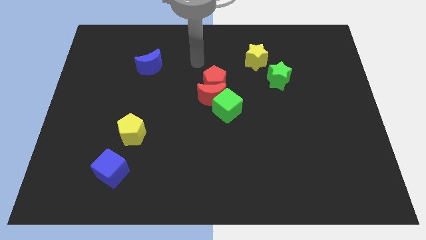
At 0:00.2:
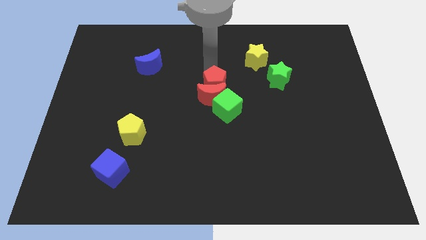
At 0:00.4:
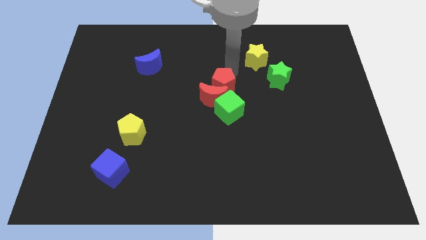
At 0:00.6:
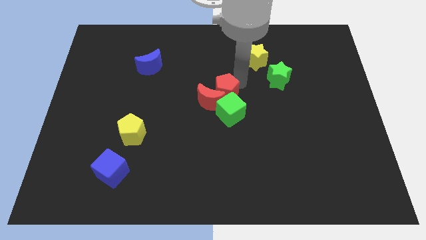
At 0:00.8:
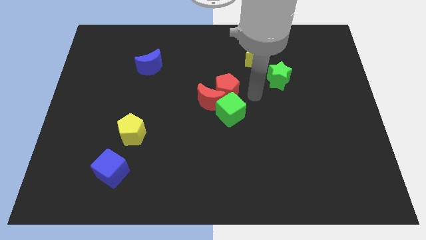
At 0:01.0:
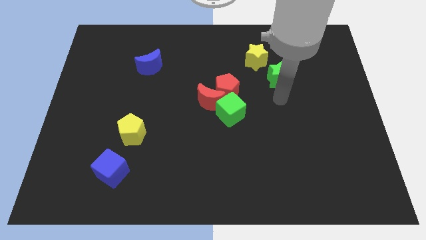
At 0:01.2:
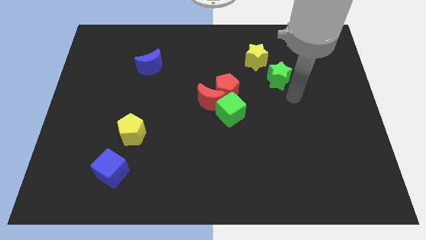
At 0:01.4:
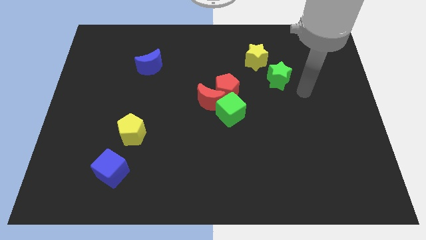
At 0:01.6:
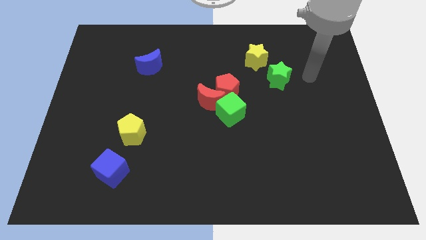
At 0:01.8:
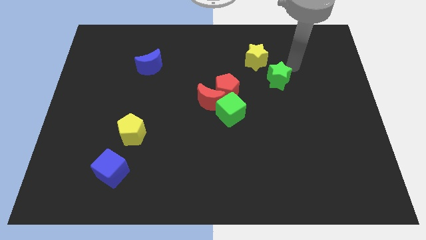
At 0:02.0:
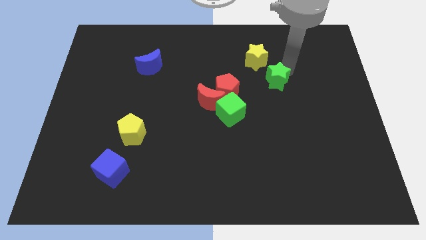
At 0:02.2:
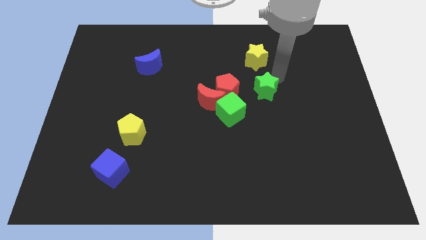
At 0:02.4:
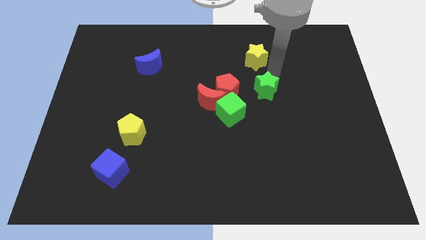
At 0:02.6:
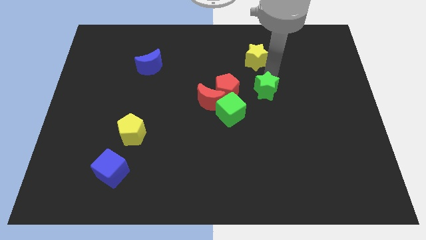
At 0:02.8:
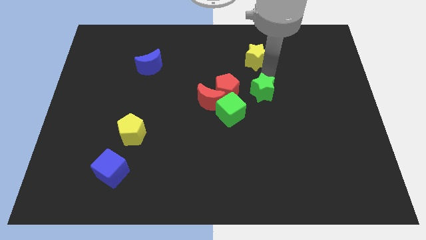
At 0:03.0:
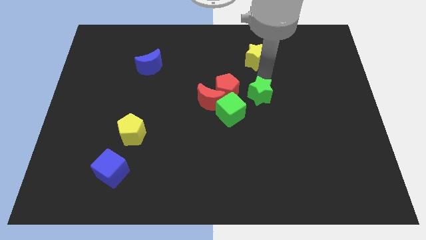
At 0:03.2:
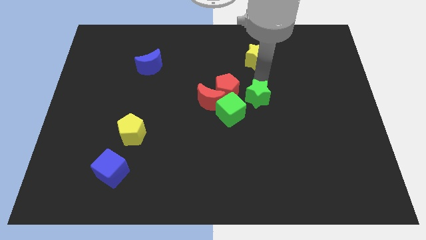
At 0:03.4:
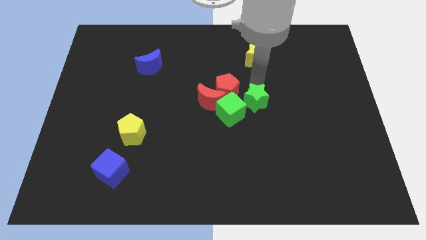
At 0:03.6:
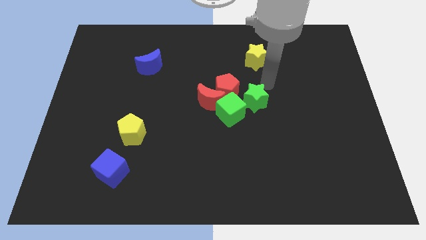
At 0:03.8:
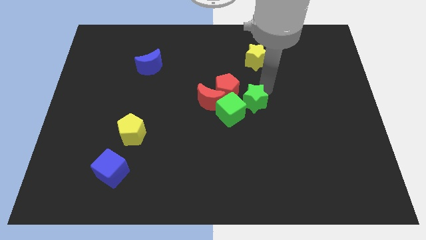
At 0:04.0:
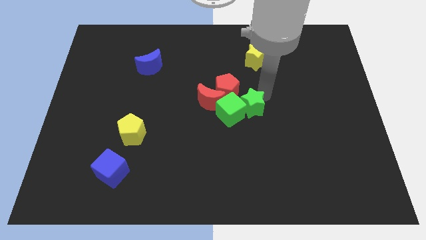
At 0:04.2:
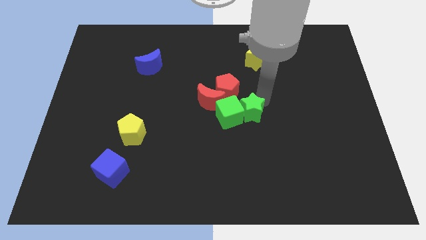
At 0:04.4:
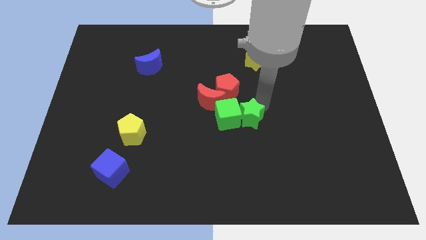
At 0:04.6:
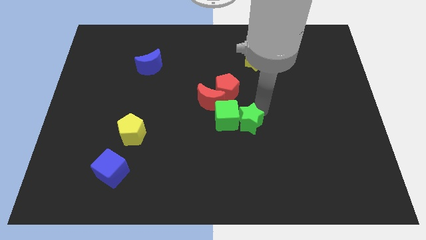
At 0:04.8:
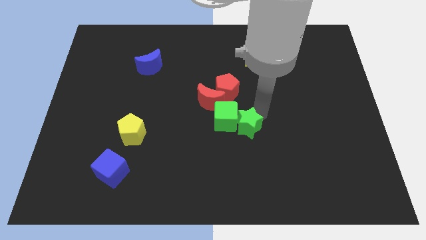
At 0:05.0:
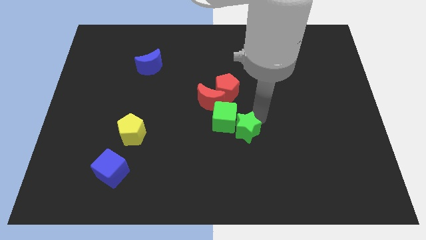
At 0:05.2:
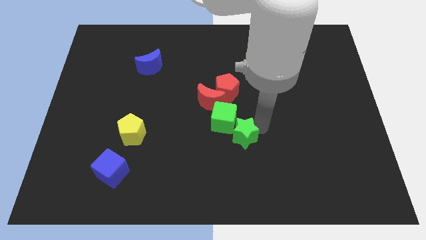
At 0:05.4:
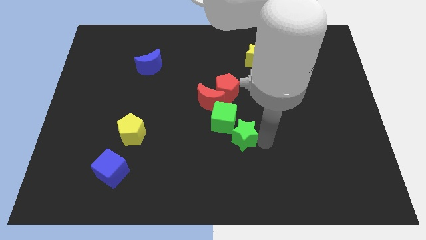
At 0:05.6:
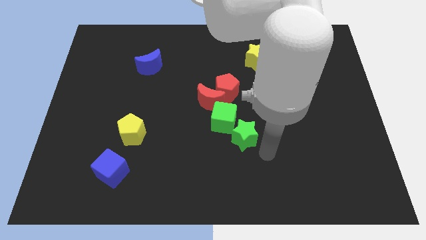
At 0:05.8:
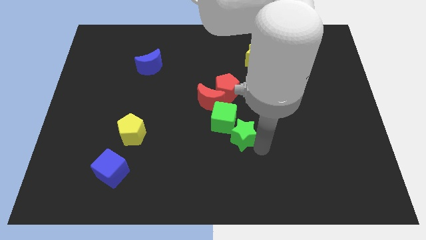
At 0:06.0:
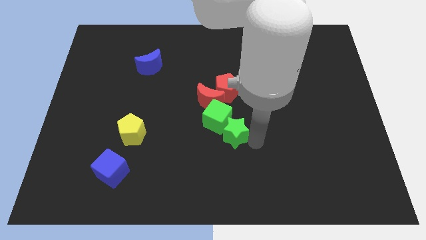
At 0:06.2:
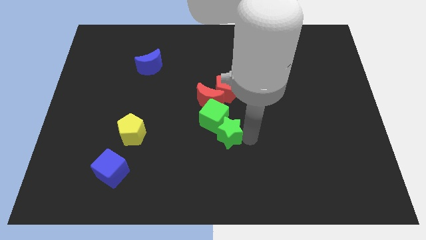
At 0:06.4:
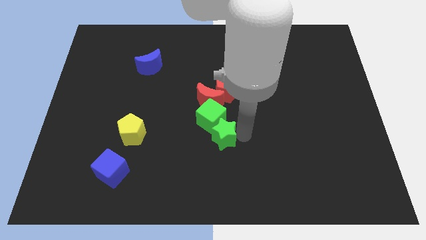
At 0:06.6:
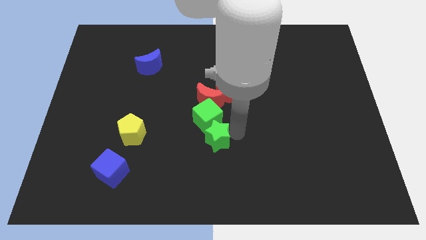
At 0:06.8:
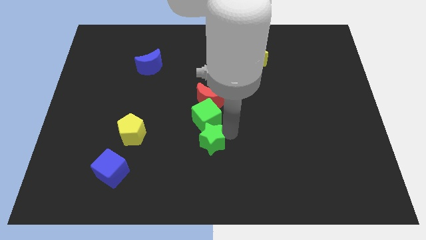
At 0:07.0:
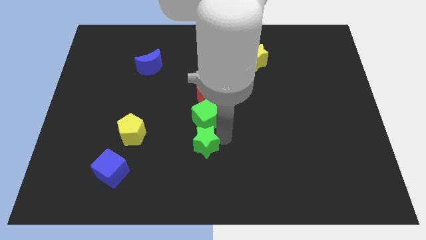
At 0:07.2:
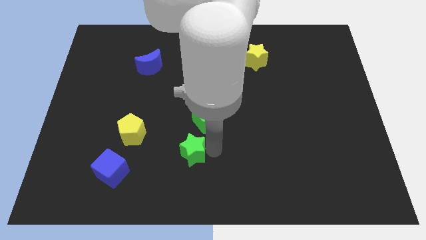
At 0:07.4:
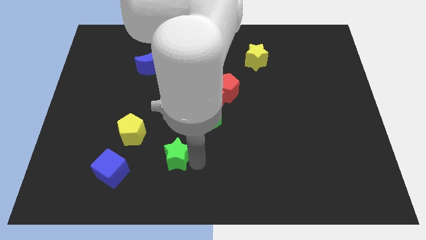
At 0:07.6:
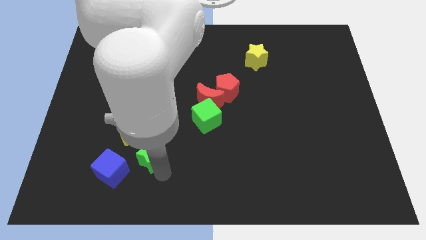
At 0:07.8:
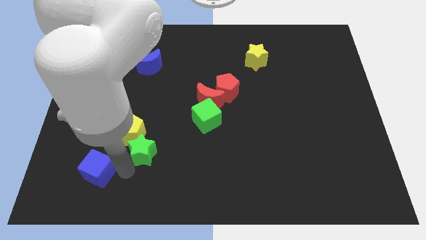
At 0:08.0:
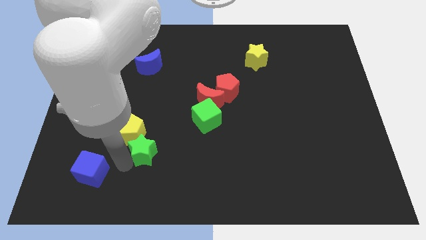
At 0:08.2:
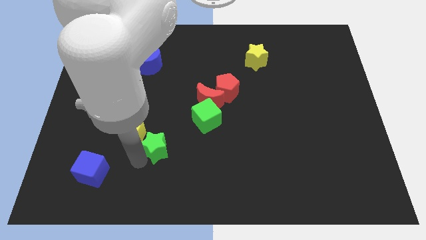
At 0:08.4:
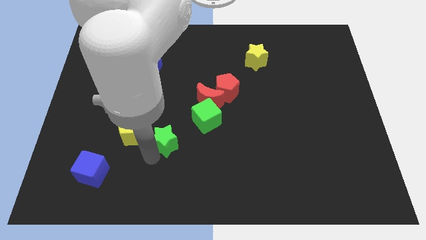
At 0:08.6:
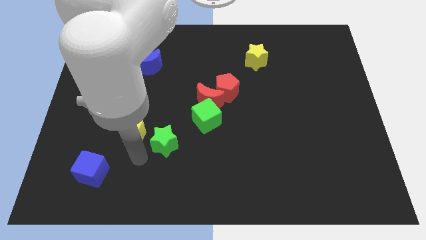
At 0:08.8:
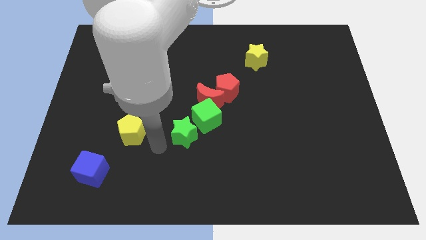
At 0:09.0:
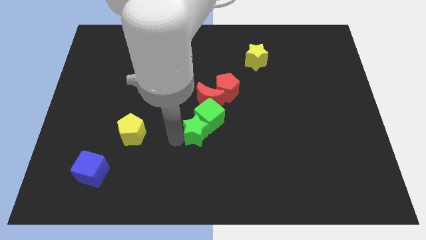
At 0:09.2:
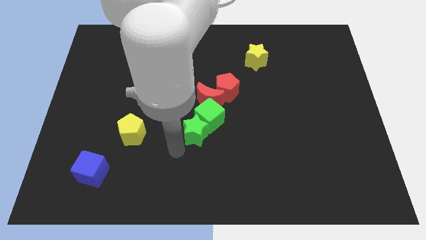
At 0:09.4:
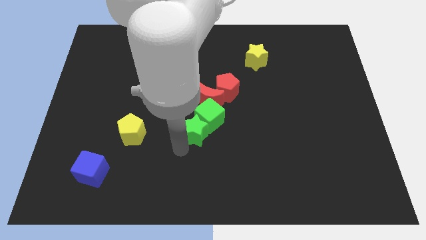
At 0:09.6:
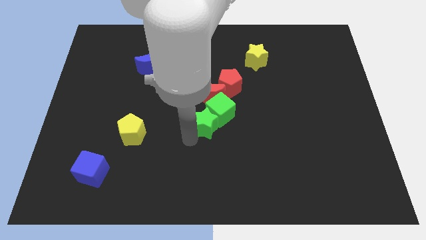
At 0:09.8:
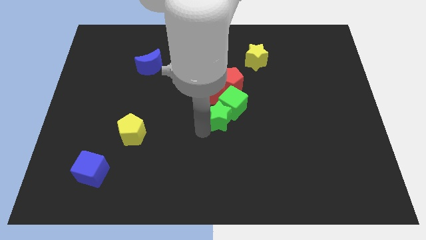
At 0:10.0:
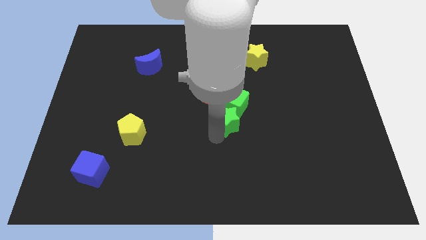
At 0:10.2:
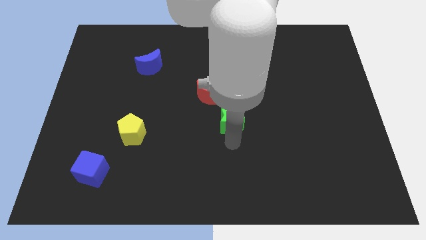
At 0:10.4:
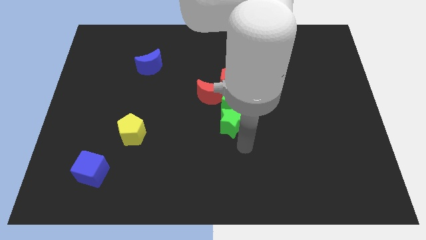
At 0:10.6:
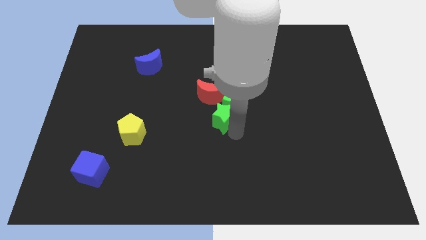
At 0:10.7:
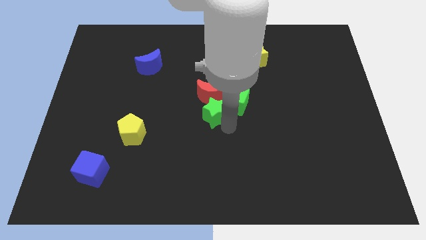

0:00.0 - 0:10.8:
put the green star to the red moon

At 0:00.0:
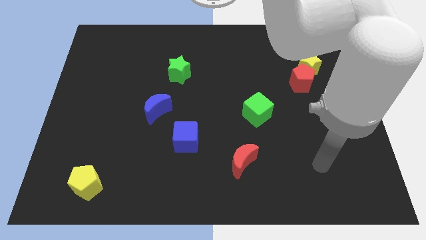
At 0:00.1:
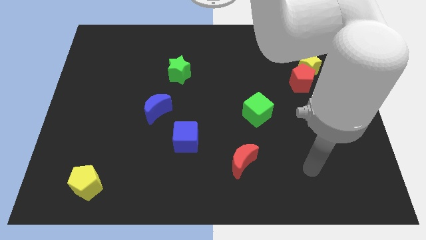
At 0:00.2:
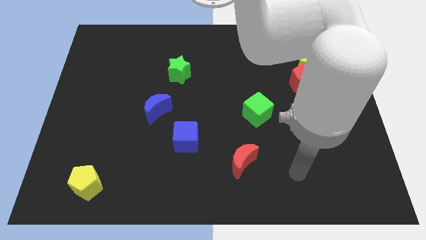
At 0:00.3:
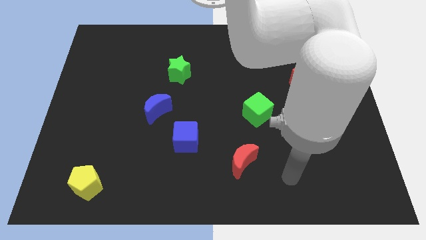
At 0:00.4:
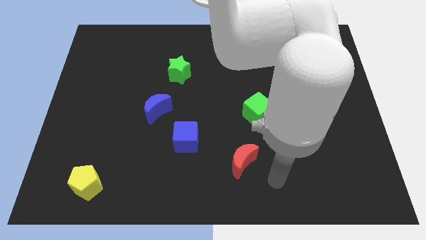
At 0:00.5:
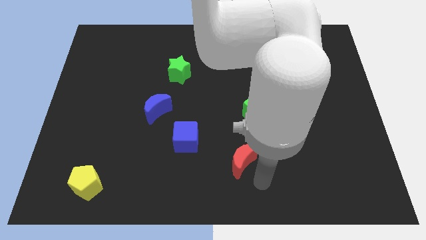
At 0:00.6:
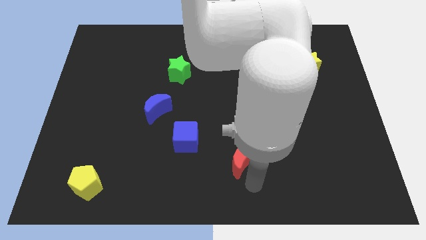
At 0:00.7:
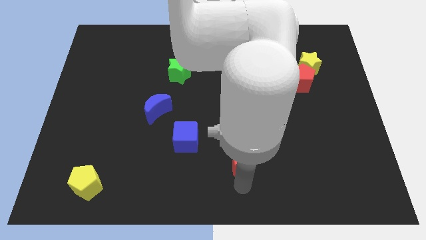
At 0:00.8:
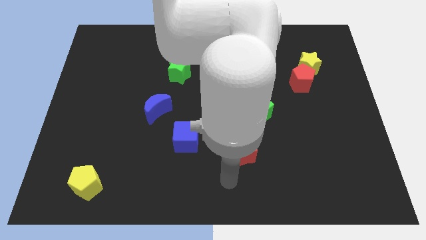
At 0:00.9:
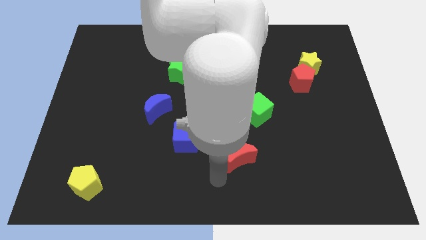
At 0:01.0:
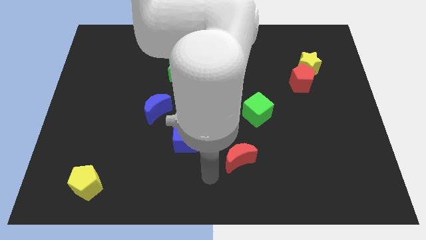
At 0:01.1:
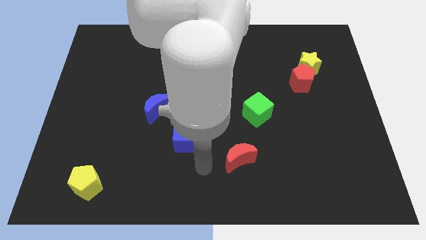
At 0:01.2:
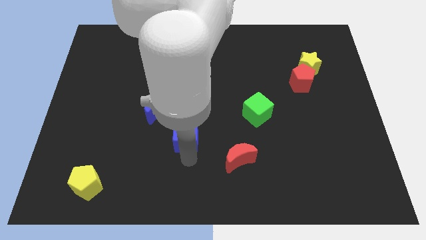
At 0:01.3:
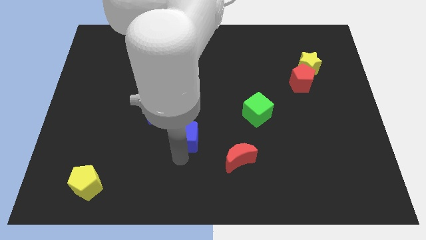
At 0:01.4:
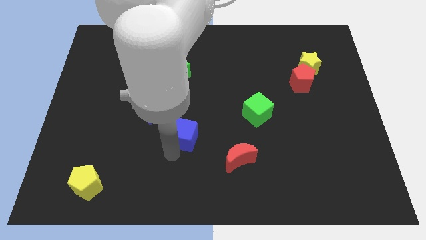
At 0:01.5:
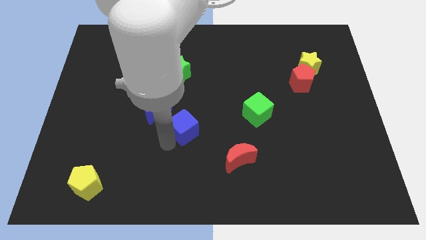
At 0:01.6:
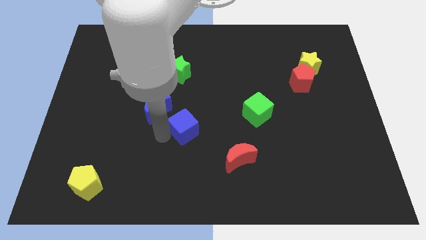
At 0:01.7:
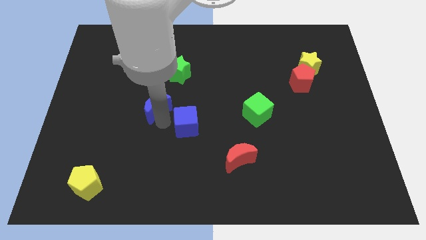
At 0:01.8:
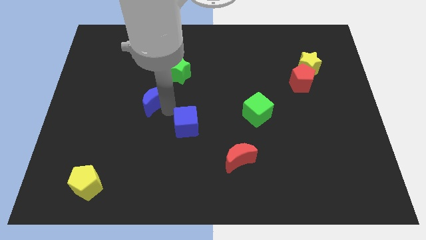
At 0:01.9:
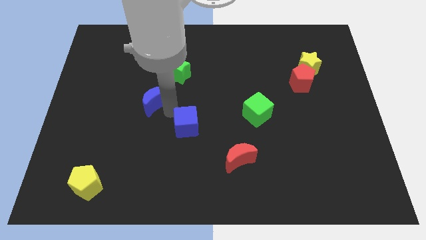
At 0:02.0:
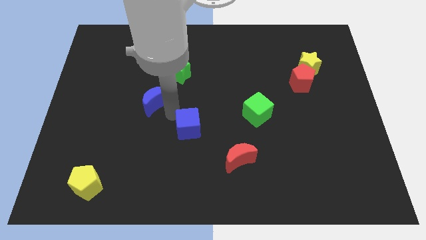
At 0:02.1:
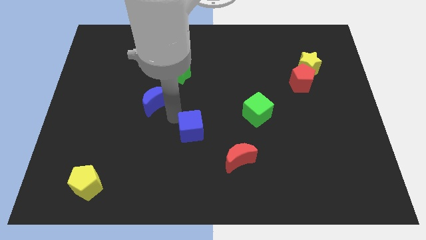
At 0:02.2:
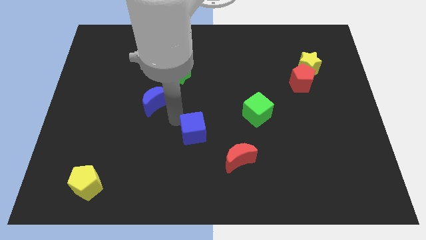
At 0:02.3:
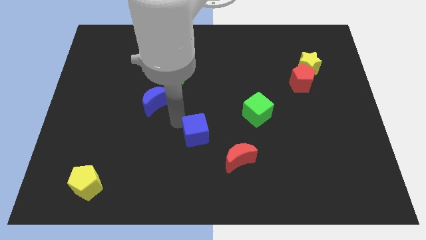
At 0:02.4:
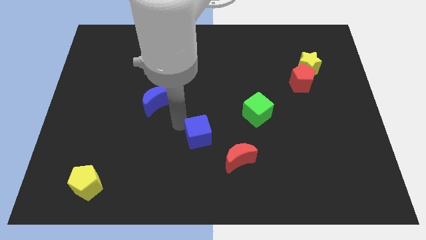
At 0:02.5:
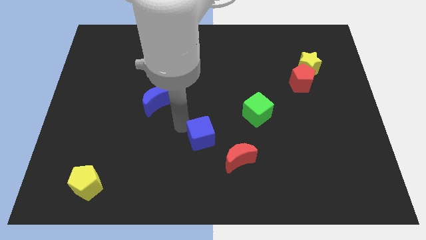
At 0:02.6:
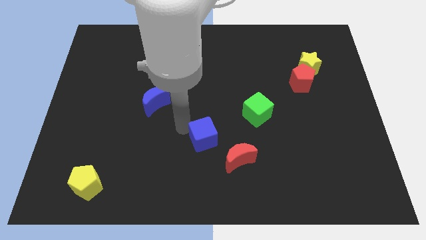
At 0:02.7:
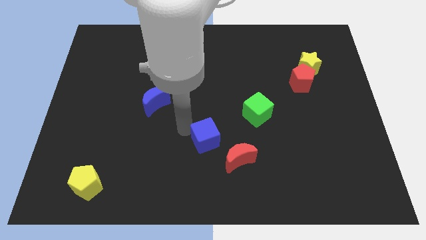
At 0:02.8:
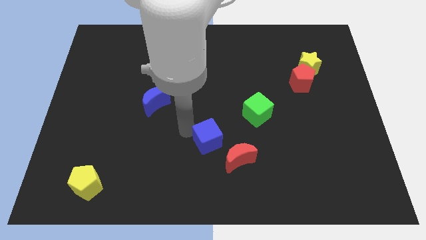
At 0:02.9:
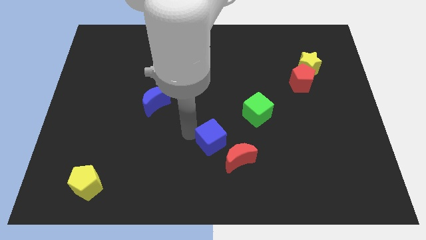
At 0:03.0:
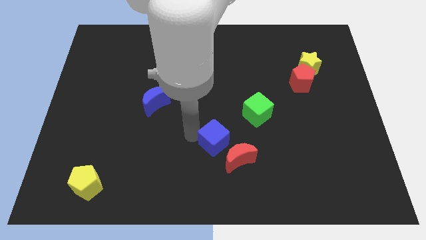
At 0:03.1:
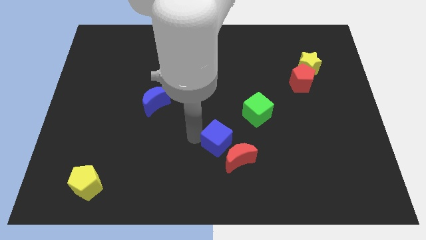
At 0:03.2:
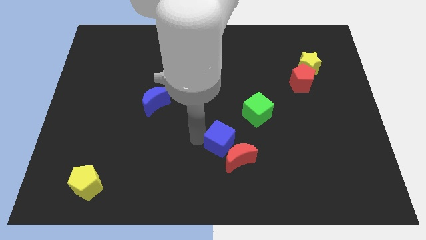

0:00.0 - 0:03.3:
move the blue cube to the red moon
